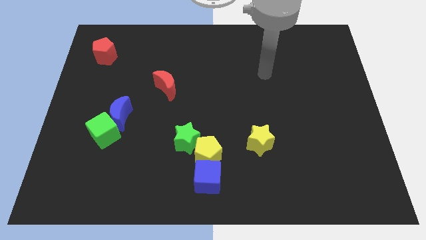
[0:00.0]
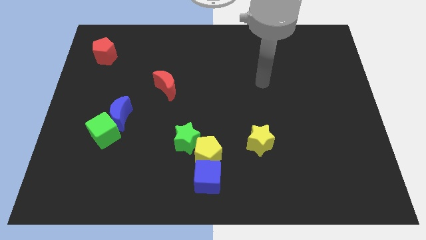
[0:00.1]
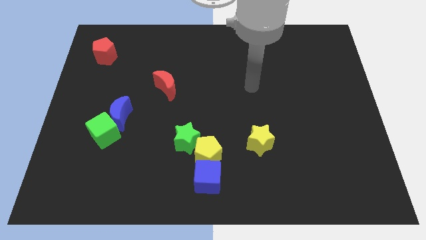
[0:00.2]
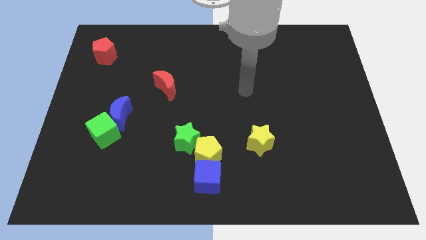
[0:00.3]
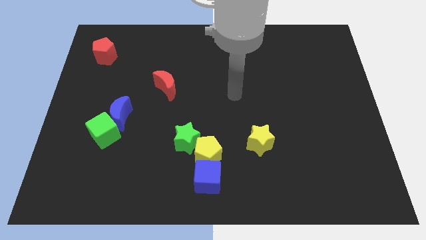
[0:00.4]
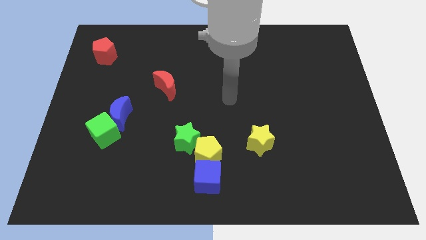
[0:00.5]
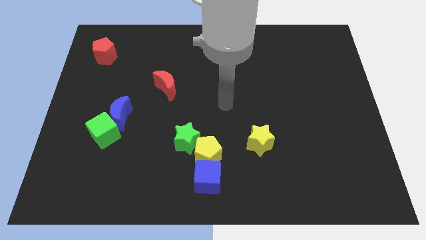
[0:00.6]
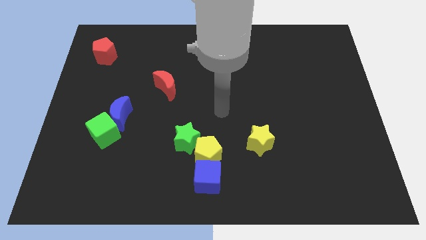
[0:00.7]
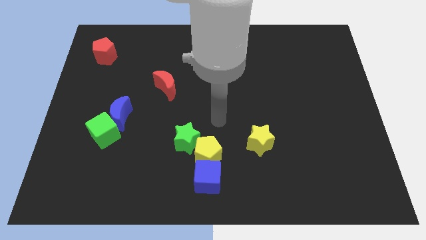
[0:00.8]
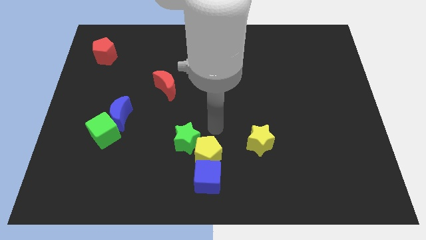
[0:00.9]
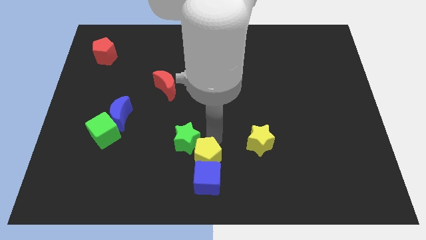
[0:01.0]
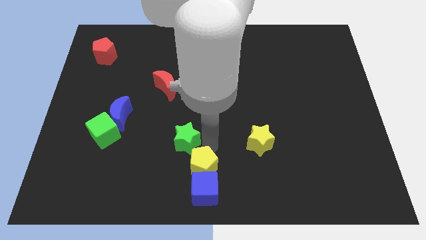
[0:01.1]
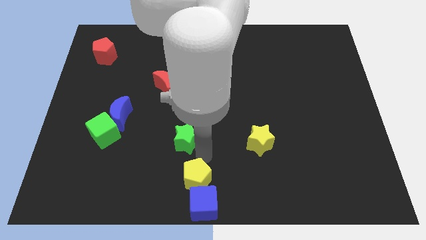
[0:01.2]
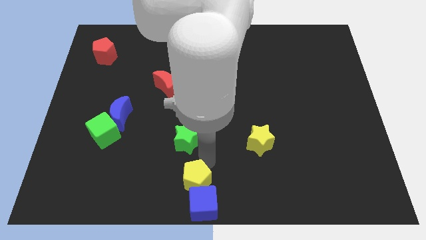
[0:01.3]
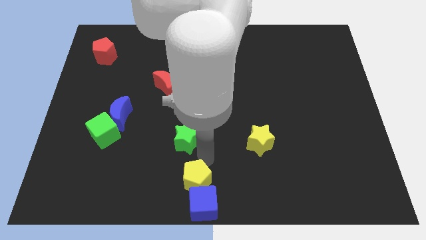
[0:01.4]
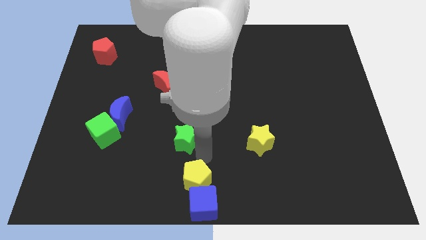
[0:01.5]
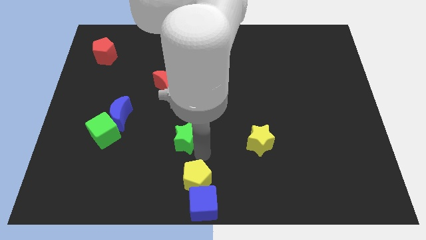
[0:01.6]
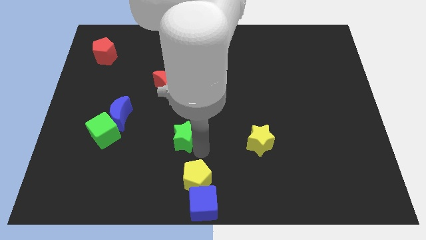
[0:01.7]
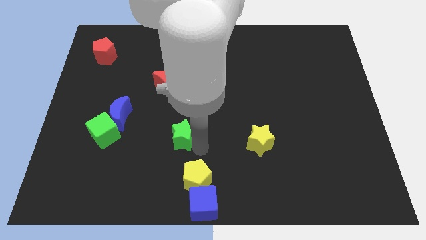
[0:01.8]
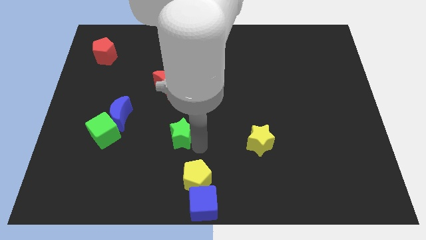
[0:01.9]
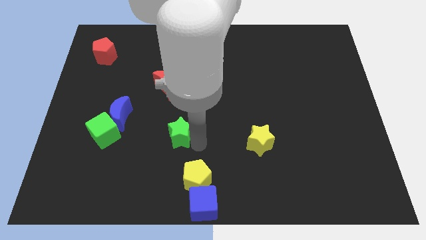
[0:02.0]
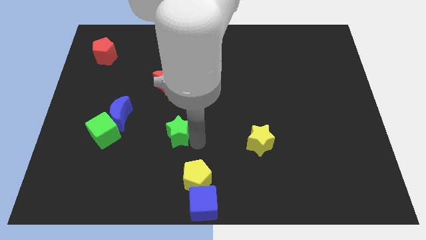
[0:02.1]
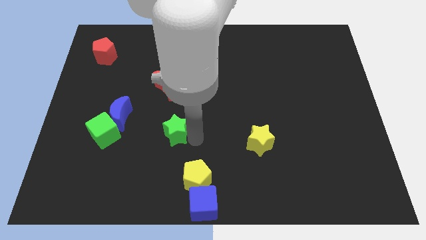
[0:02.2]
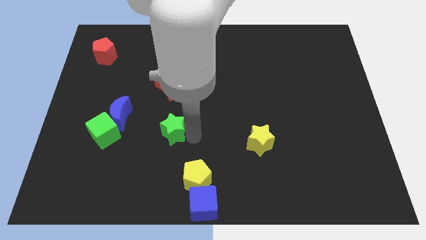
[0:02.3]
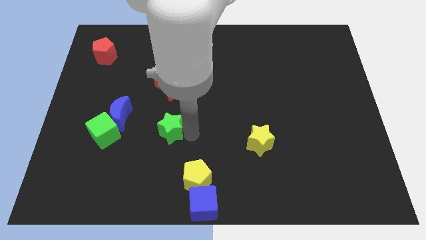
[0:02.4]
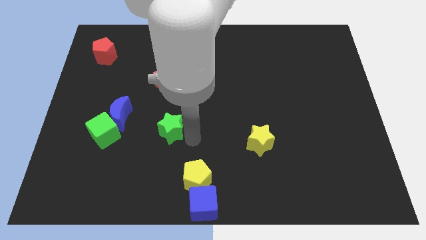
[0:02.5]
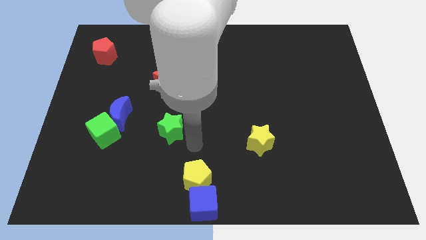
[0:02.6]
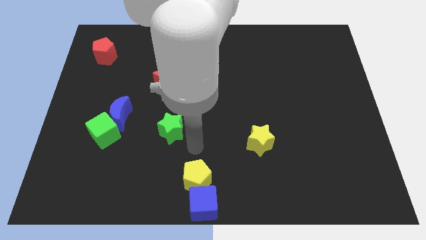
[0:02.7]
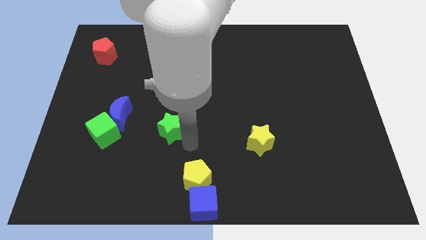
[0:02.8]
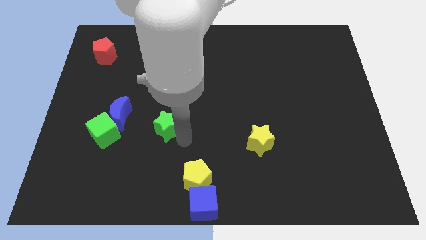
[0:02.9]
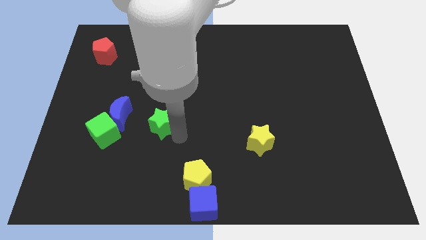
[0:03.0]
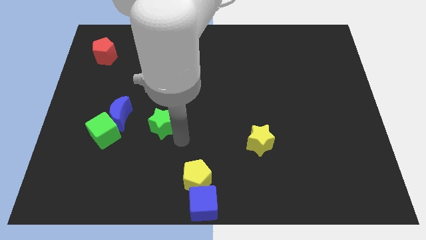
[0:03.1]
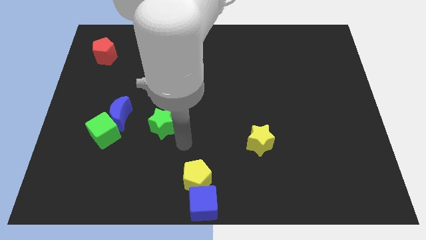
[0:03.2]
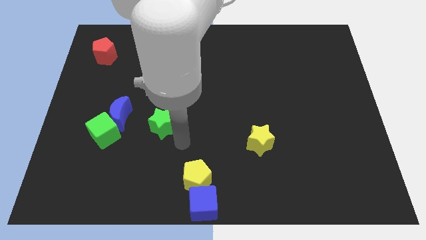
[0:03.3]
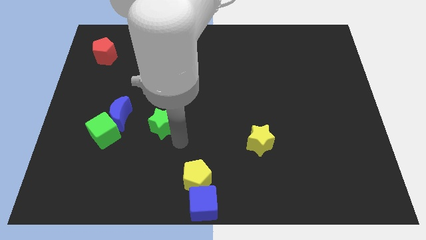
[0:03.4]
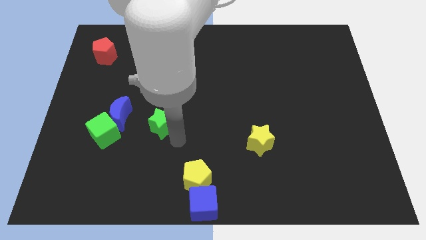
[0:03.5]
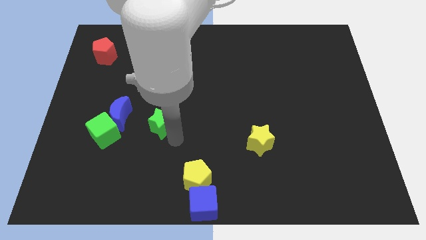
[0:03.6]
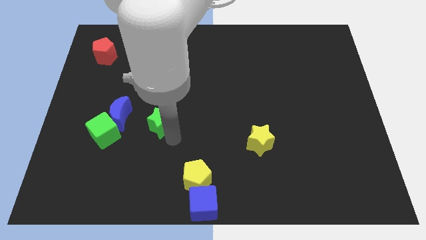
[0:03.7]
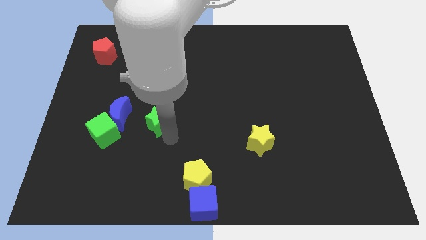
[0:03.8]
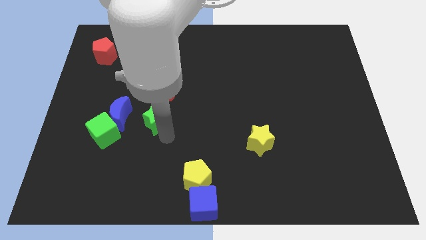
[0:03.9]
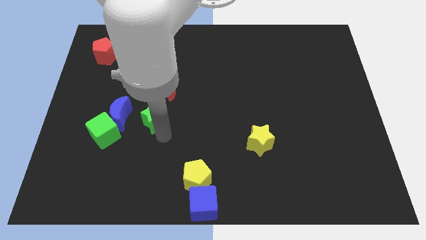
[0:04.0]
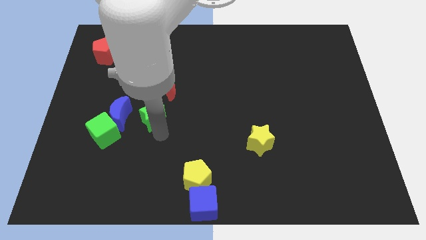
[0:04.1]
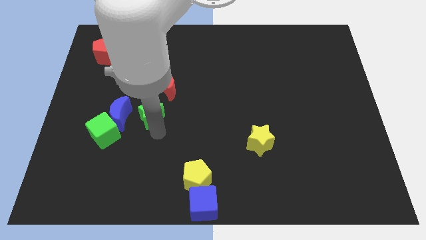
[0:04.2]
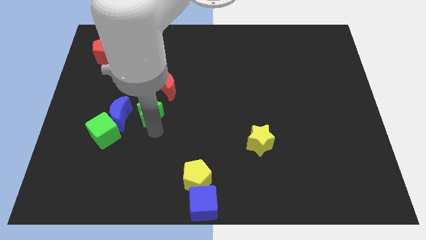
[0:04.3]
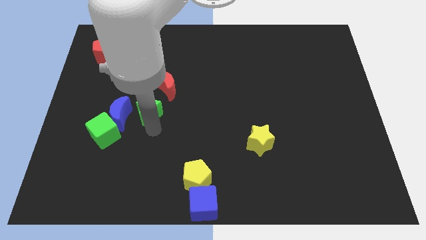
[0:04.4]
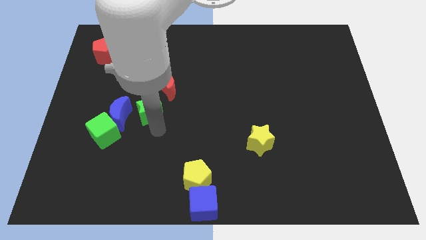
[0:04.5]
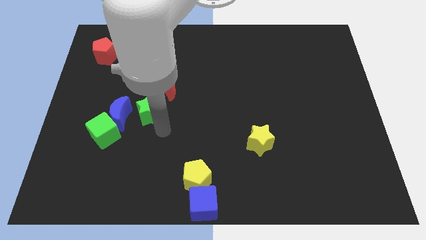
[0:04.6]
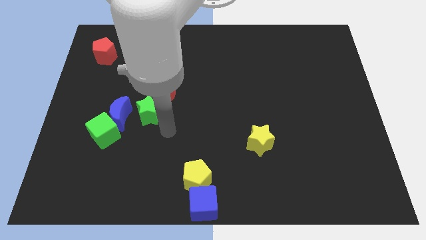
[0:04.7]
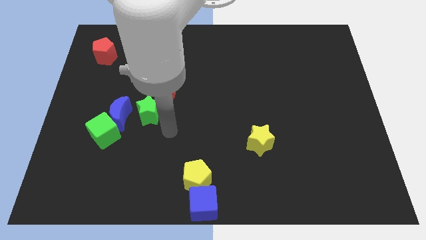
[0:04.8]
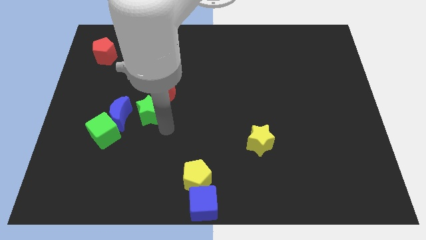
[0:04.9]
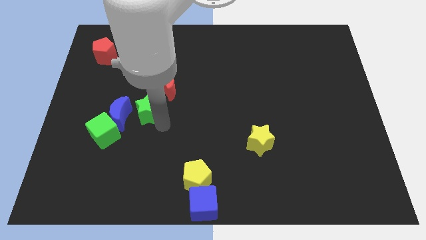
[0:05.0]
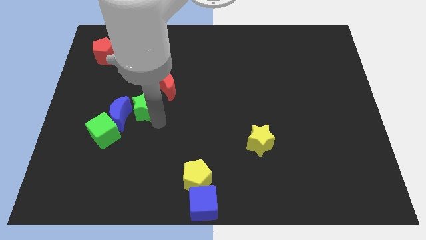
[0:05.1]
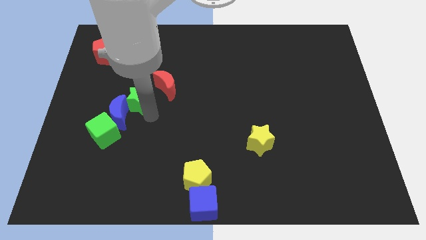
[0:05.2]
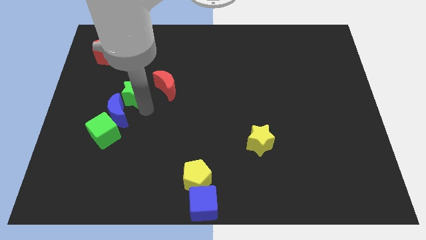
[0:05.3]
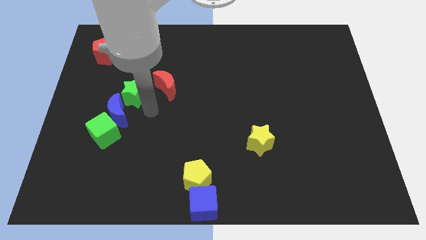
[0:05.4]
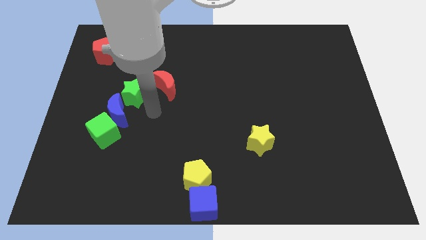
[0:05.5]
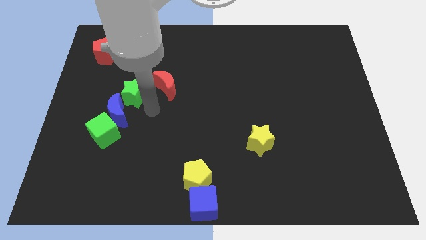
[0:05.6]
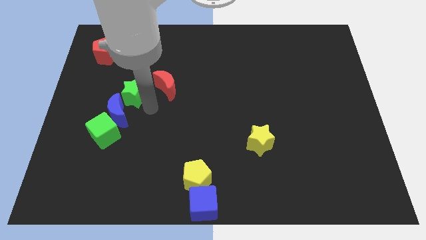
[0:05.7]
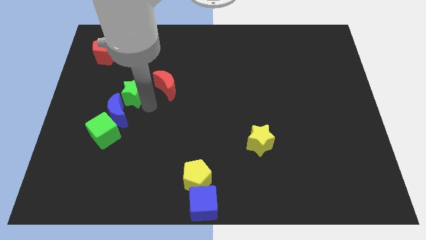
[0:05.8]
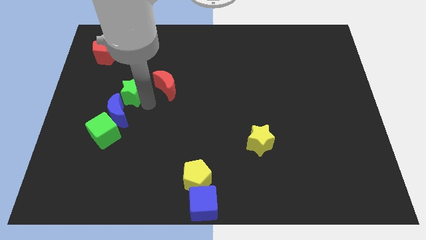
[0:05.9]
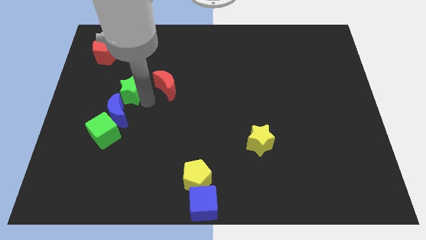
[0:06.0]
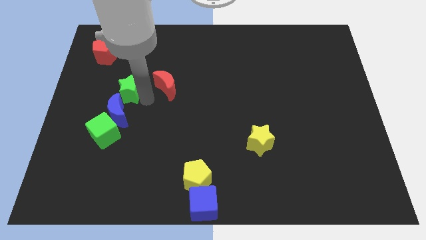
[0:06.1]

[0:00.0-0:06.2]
move the green star upwards and left

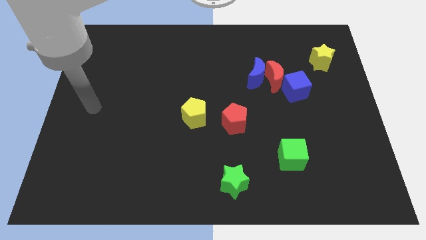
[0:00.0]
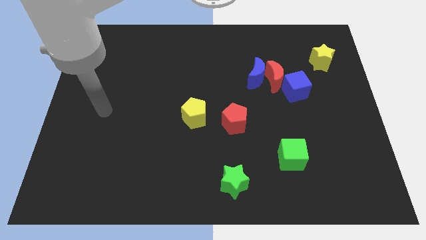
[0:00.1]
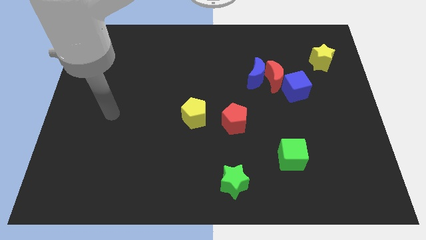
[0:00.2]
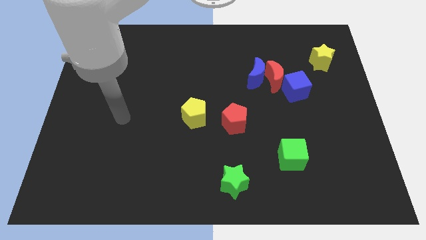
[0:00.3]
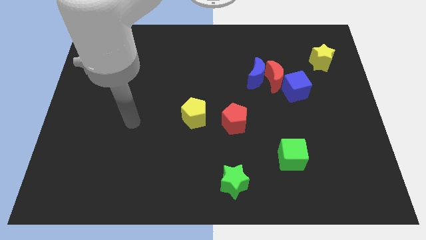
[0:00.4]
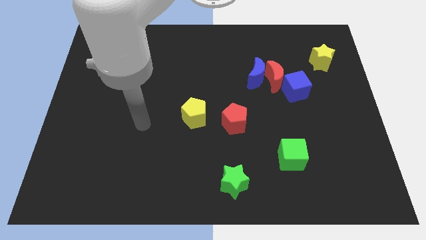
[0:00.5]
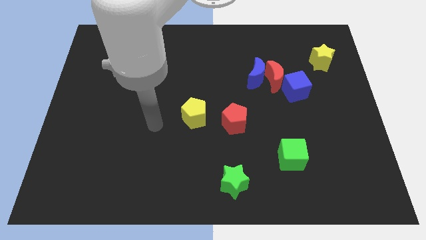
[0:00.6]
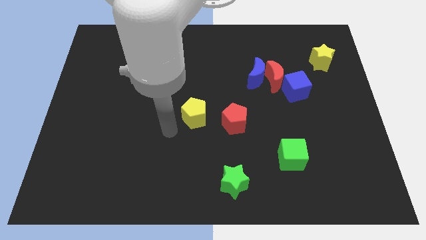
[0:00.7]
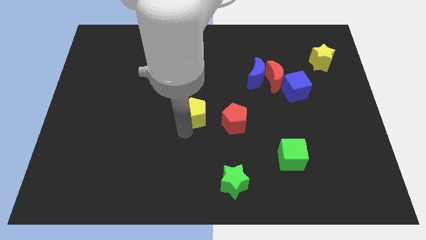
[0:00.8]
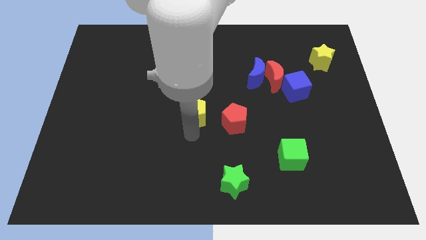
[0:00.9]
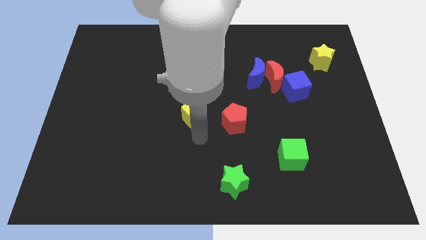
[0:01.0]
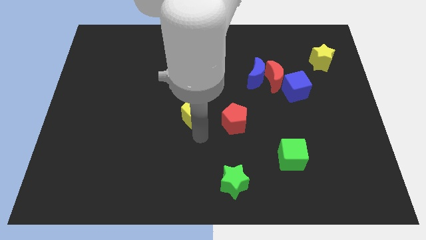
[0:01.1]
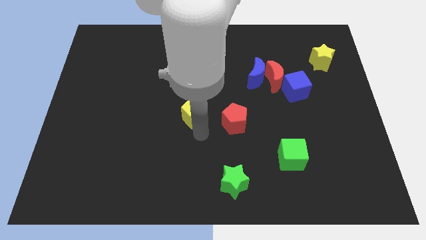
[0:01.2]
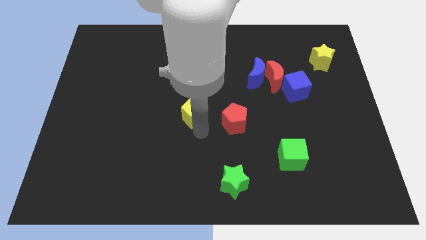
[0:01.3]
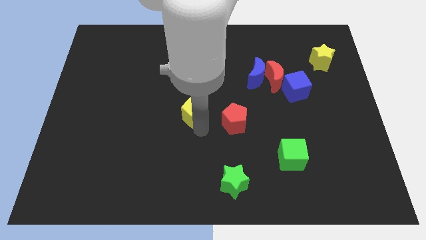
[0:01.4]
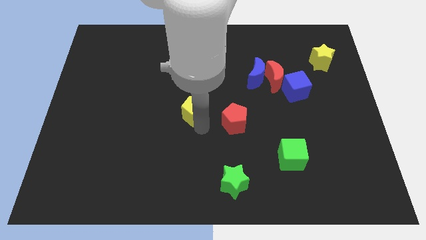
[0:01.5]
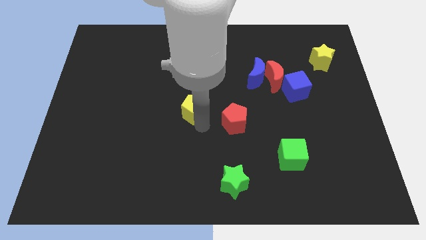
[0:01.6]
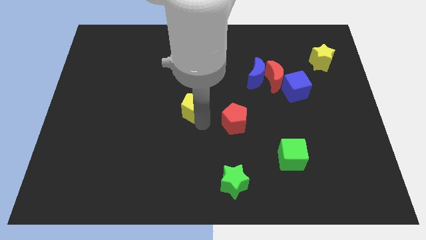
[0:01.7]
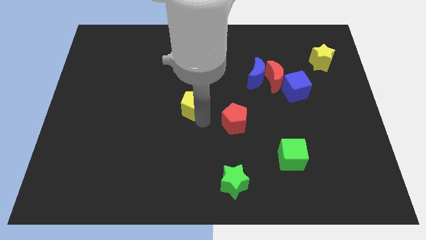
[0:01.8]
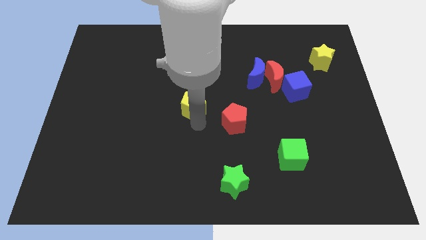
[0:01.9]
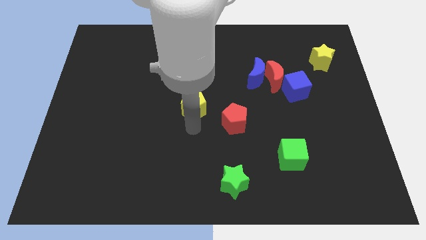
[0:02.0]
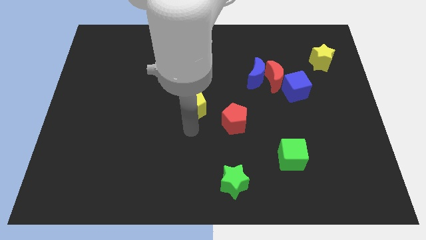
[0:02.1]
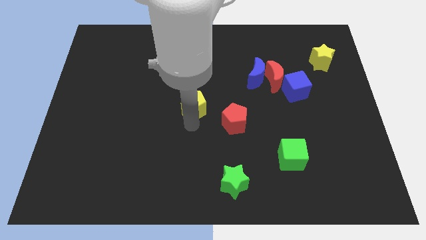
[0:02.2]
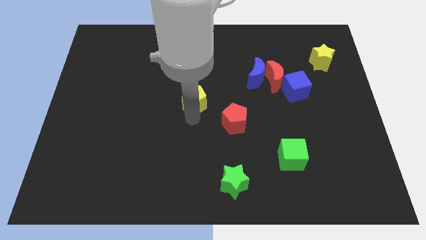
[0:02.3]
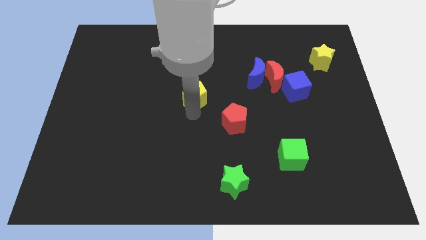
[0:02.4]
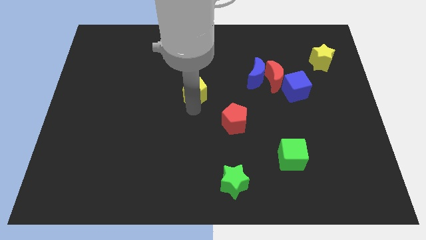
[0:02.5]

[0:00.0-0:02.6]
slightly slide the yellow pentagon upwards
